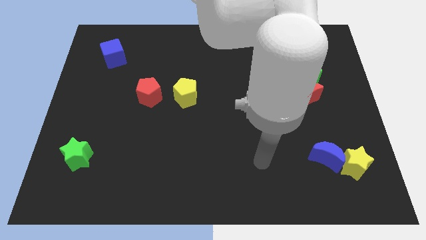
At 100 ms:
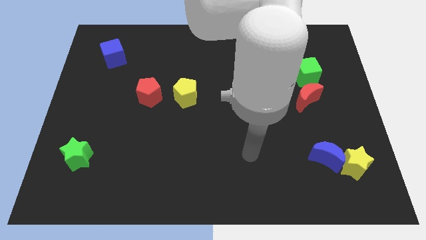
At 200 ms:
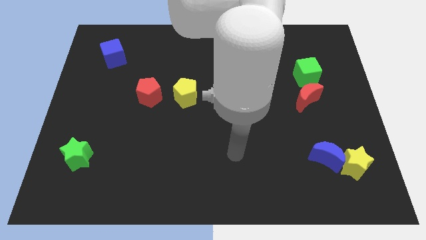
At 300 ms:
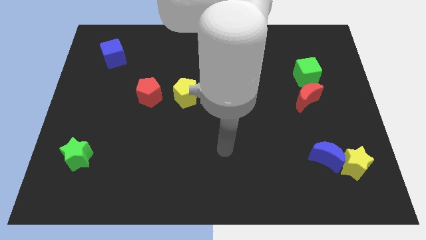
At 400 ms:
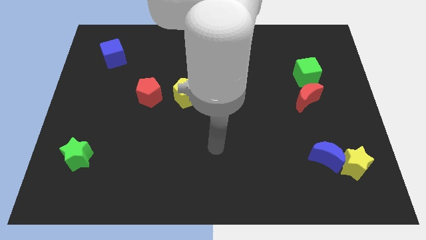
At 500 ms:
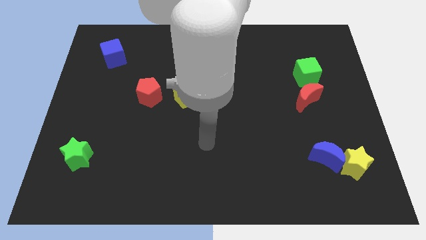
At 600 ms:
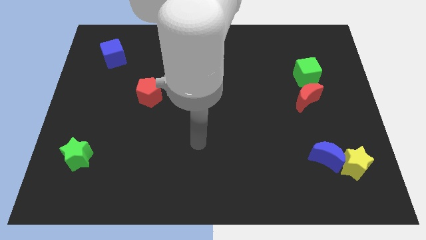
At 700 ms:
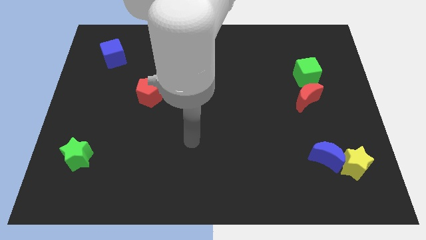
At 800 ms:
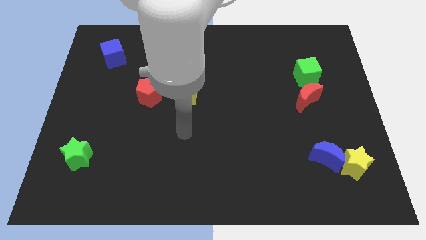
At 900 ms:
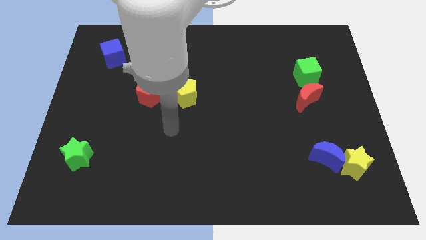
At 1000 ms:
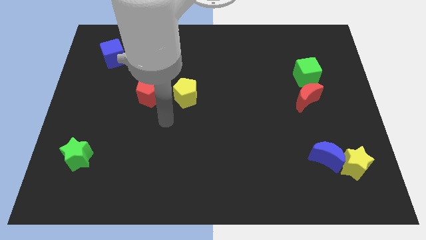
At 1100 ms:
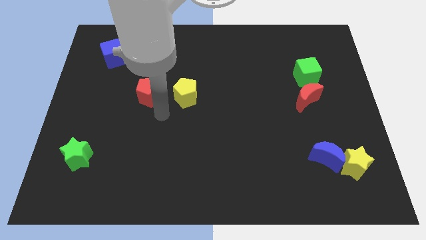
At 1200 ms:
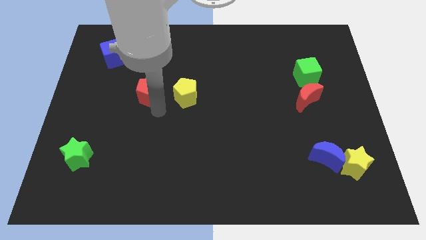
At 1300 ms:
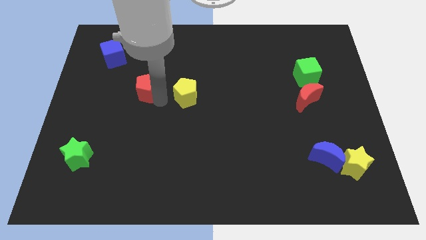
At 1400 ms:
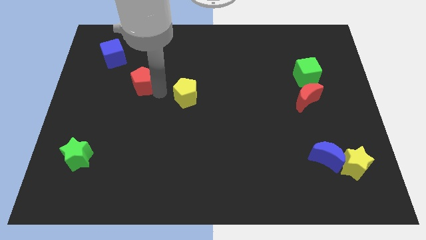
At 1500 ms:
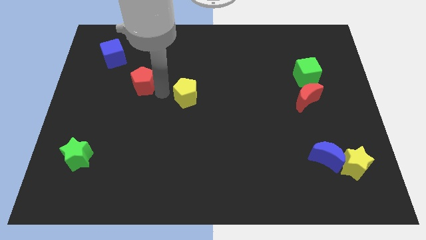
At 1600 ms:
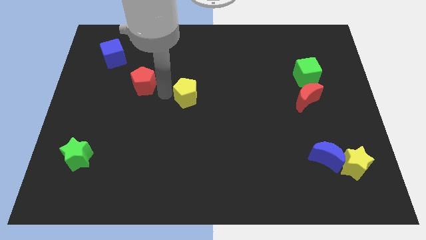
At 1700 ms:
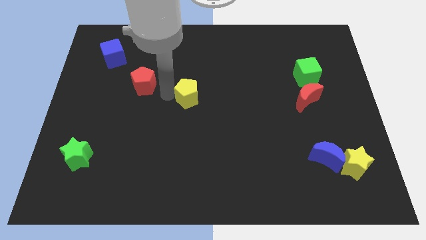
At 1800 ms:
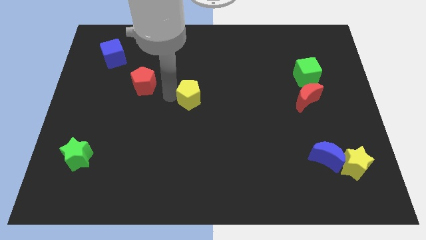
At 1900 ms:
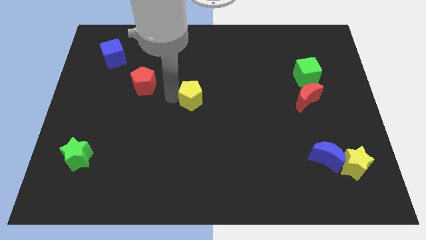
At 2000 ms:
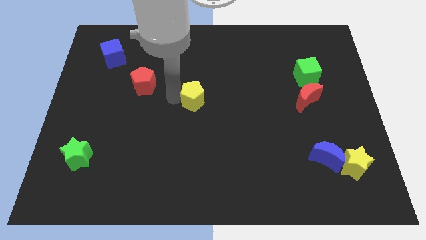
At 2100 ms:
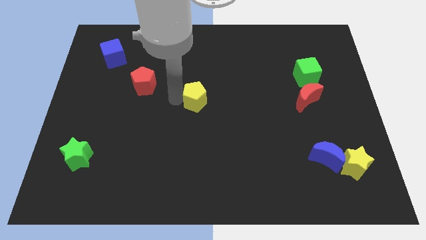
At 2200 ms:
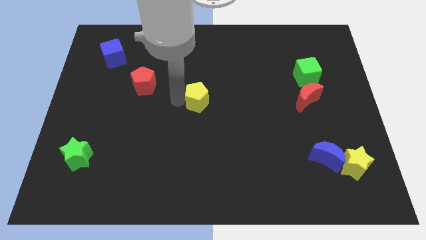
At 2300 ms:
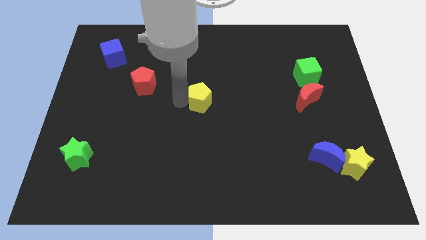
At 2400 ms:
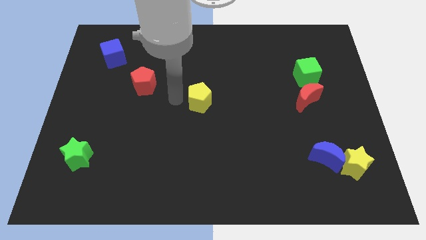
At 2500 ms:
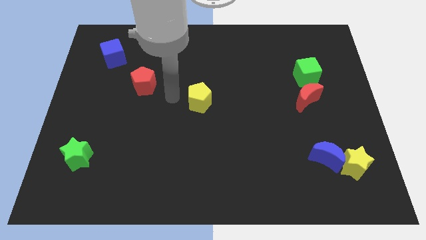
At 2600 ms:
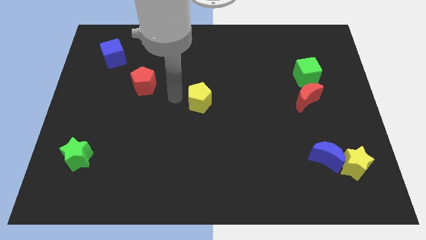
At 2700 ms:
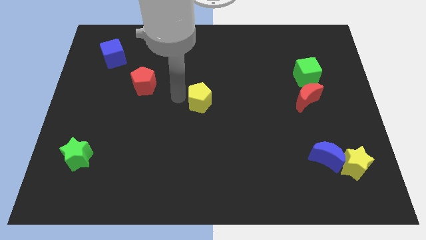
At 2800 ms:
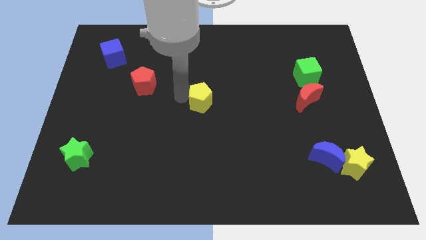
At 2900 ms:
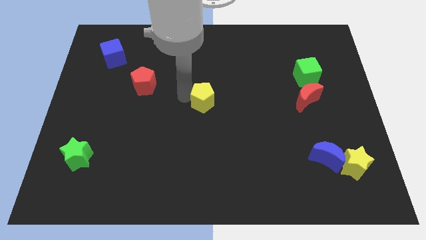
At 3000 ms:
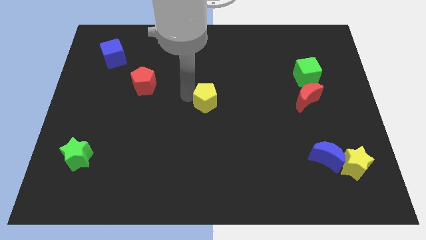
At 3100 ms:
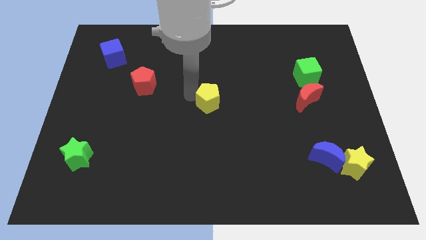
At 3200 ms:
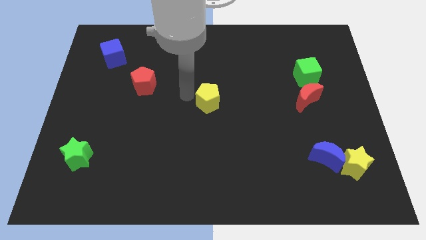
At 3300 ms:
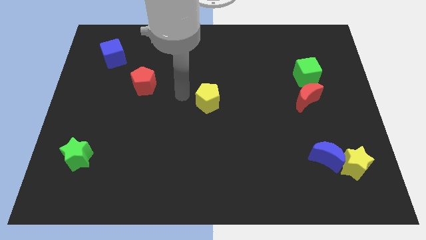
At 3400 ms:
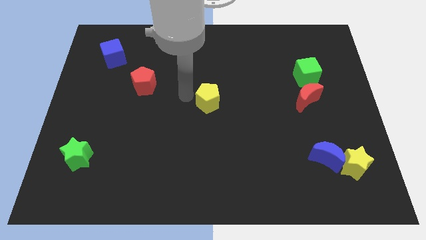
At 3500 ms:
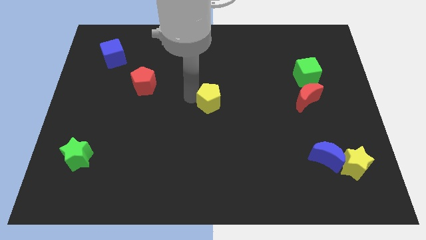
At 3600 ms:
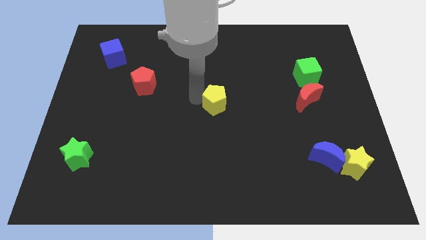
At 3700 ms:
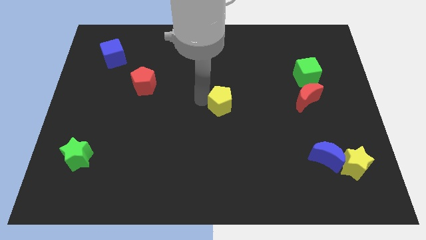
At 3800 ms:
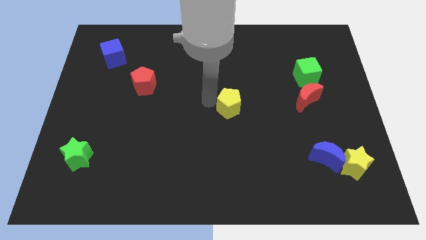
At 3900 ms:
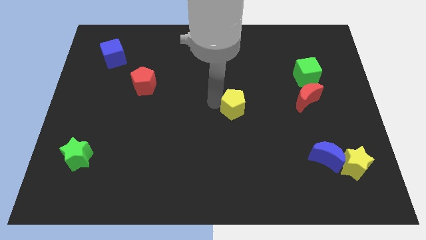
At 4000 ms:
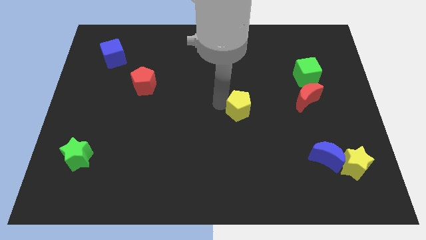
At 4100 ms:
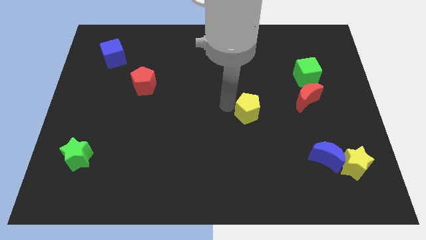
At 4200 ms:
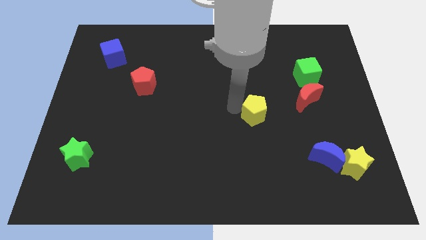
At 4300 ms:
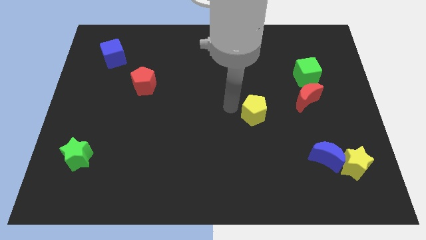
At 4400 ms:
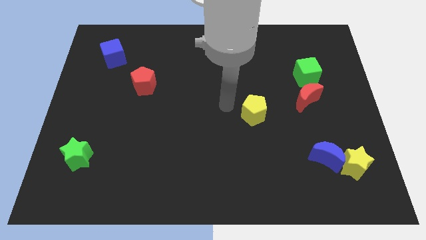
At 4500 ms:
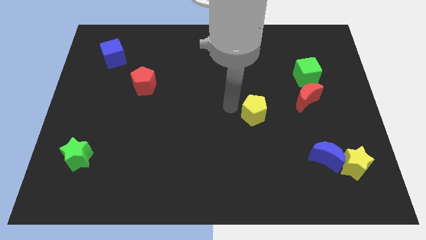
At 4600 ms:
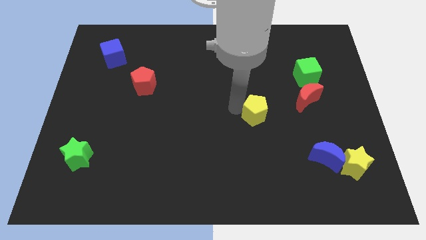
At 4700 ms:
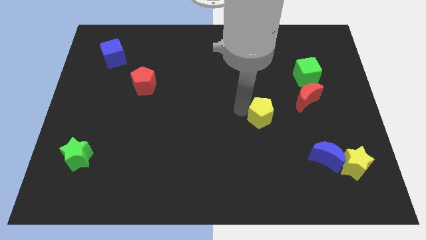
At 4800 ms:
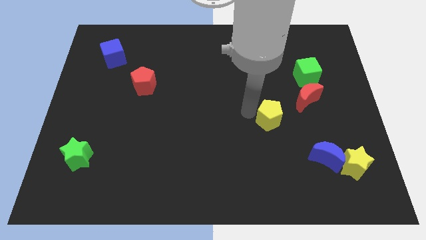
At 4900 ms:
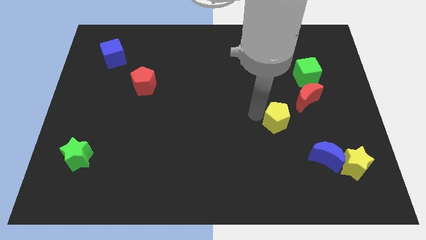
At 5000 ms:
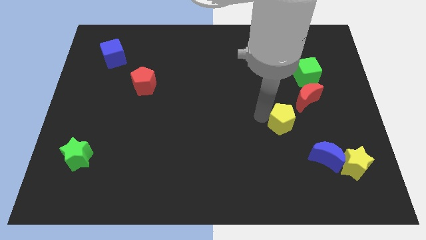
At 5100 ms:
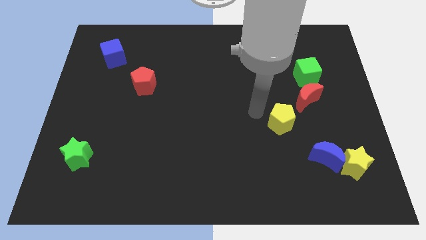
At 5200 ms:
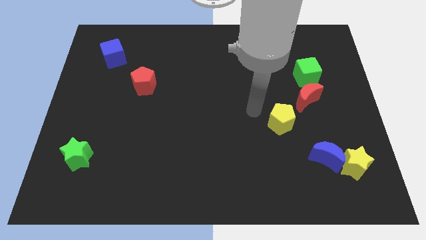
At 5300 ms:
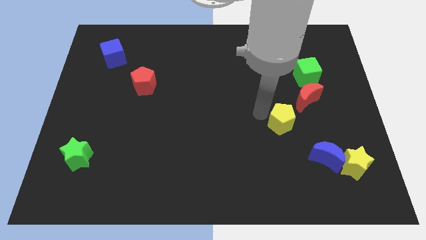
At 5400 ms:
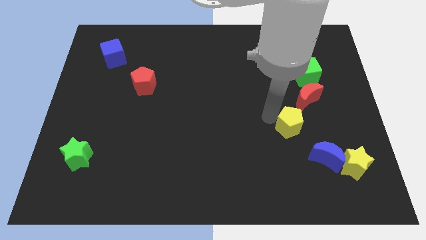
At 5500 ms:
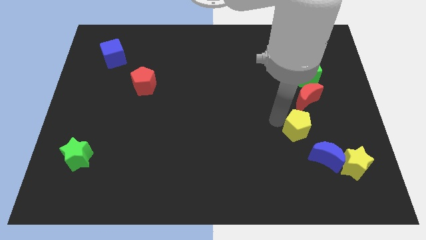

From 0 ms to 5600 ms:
put the yellow pentagon to the bottom side of the red moon

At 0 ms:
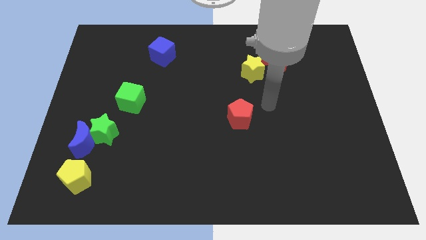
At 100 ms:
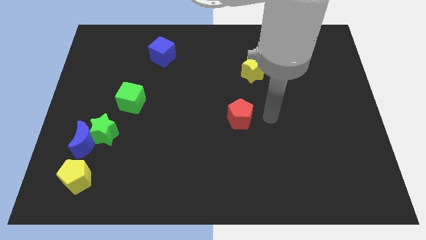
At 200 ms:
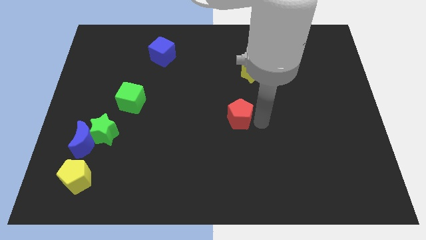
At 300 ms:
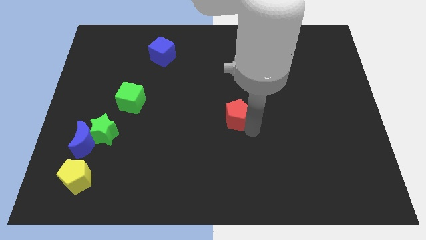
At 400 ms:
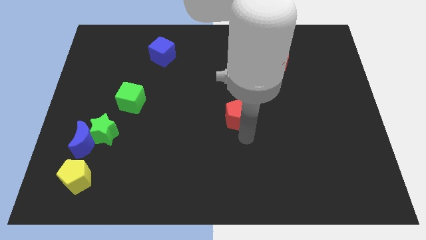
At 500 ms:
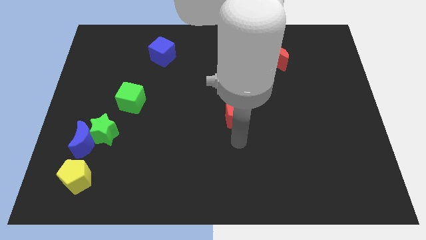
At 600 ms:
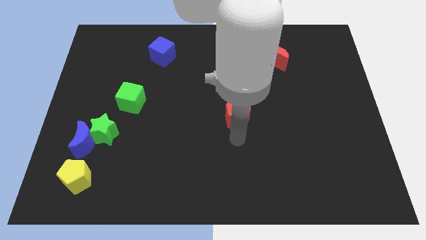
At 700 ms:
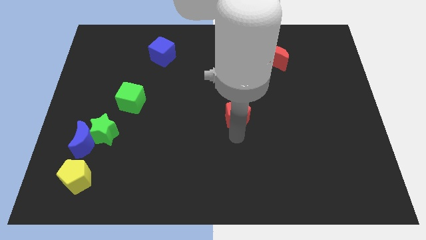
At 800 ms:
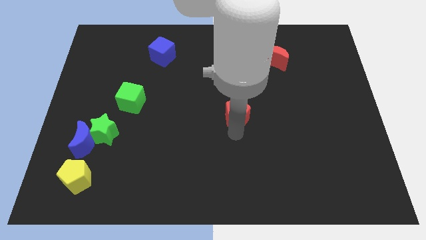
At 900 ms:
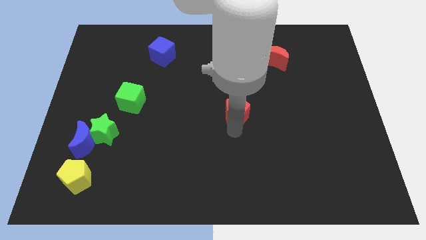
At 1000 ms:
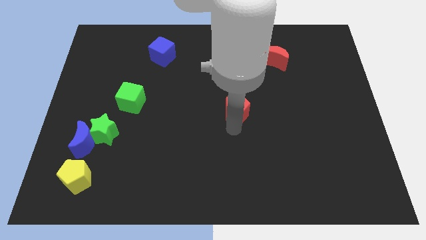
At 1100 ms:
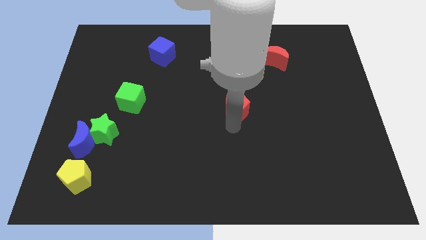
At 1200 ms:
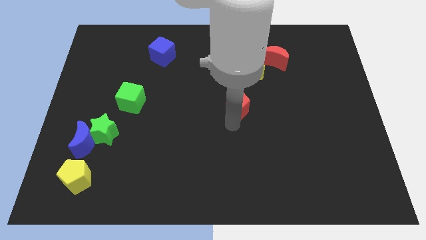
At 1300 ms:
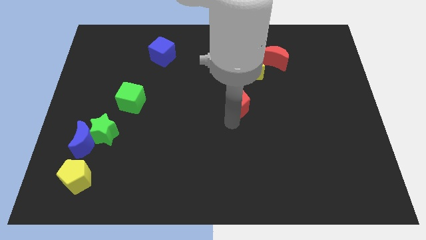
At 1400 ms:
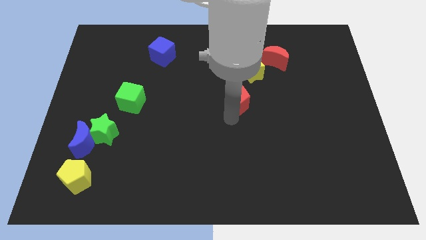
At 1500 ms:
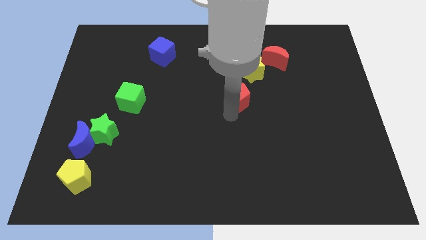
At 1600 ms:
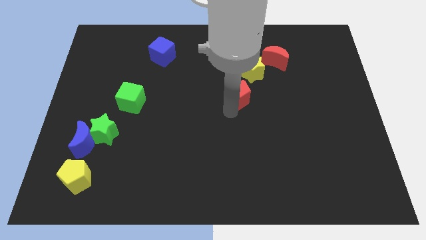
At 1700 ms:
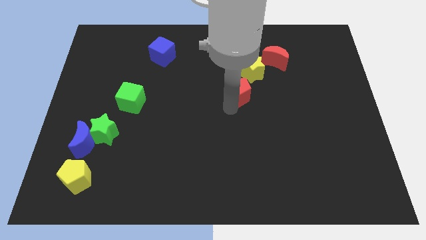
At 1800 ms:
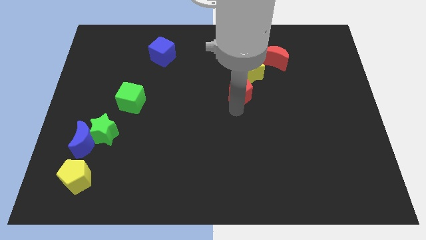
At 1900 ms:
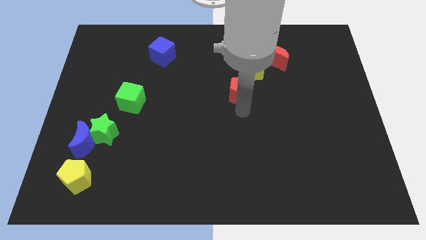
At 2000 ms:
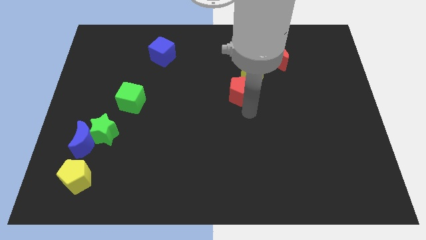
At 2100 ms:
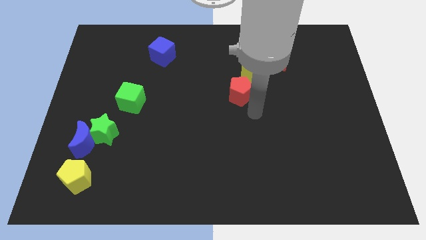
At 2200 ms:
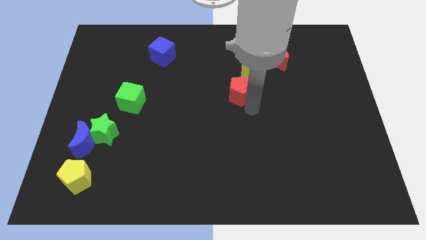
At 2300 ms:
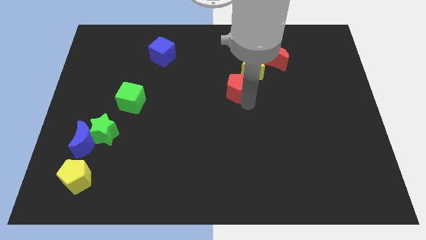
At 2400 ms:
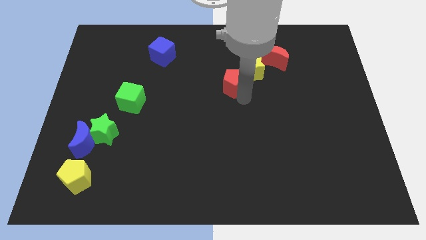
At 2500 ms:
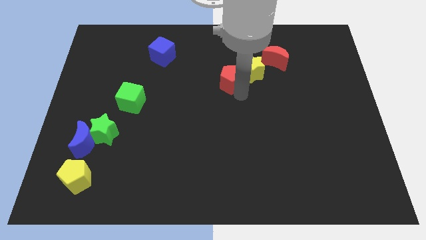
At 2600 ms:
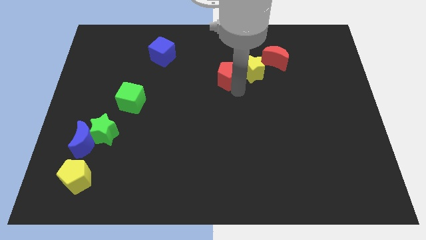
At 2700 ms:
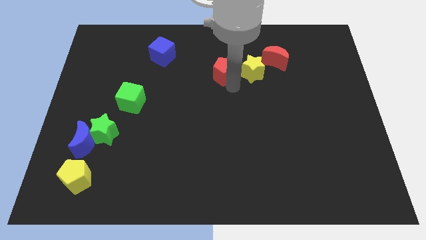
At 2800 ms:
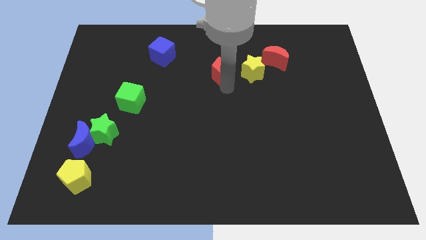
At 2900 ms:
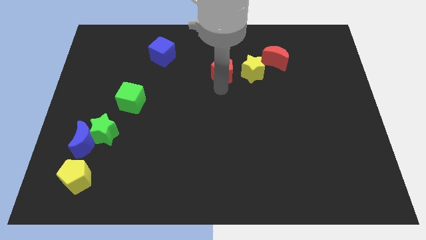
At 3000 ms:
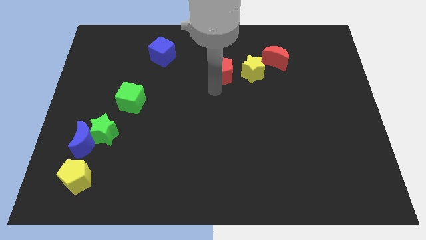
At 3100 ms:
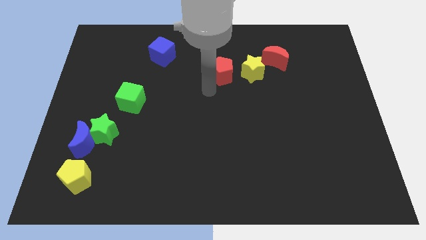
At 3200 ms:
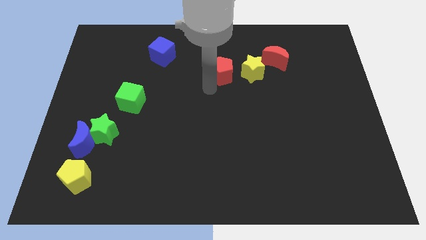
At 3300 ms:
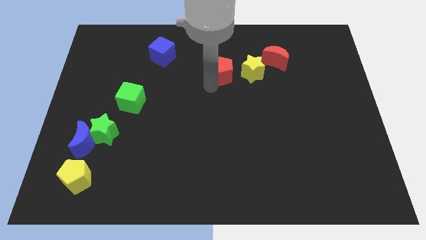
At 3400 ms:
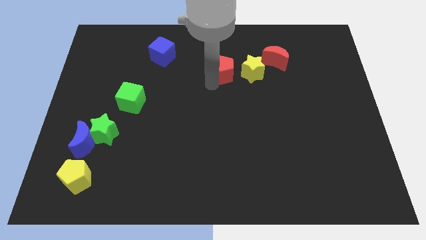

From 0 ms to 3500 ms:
move the red pentagon to the left side of the red moon
